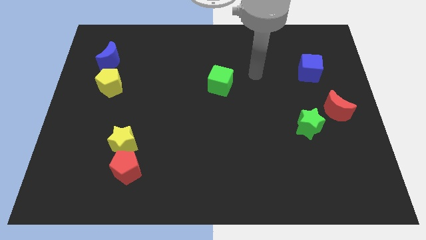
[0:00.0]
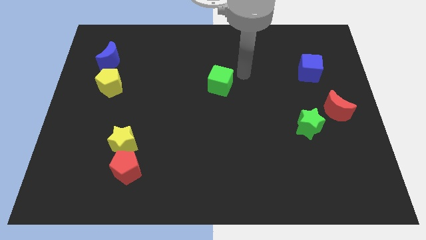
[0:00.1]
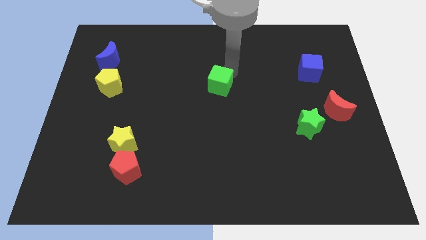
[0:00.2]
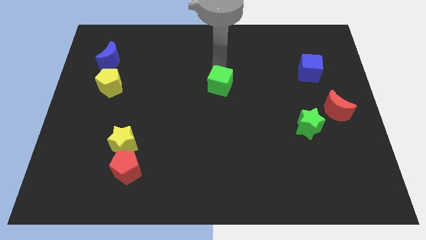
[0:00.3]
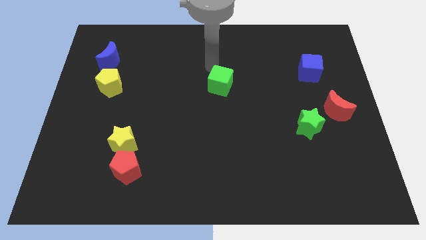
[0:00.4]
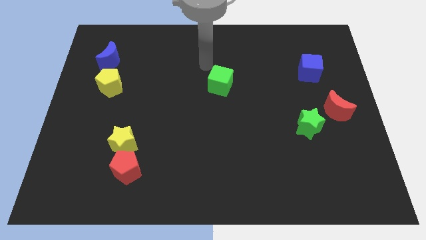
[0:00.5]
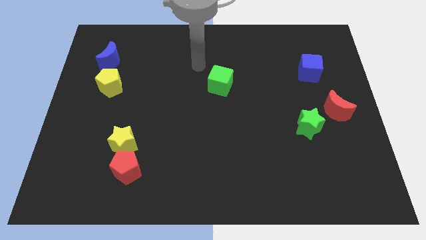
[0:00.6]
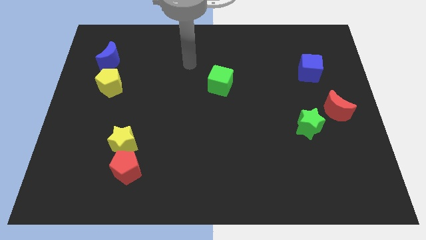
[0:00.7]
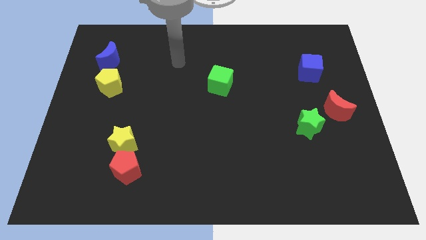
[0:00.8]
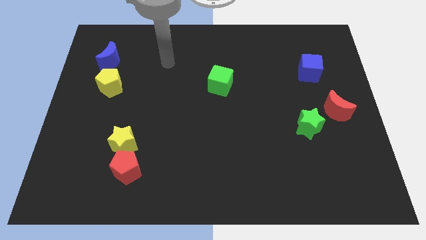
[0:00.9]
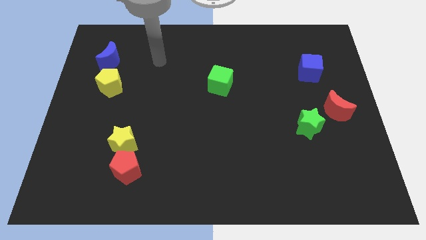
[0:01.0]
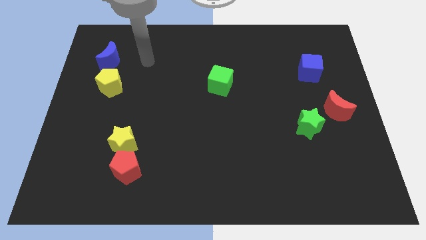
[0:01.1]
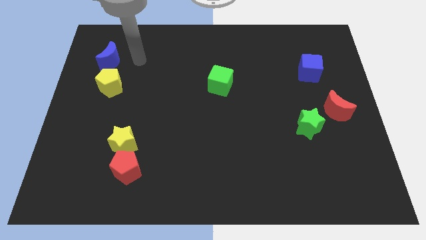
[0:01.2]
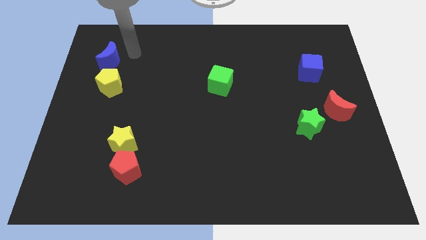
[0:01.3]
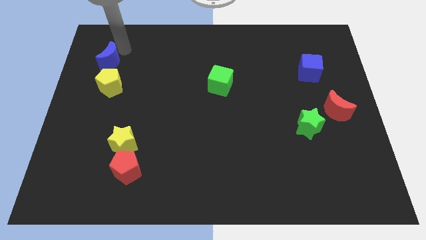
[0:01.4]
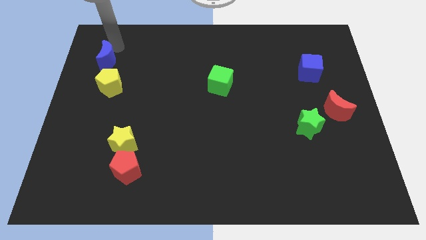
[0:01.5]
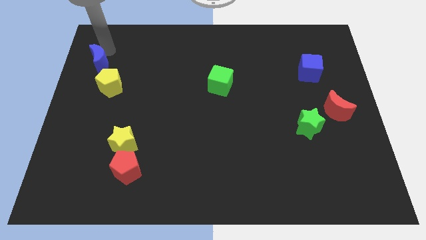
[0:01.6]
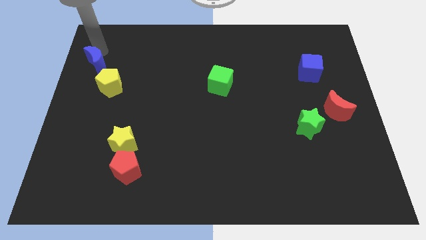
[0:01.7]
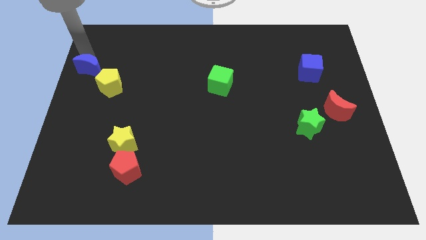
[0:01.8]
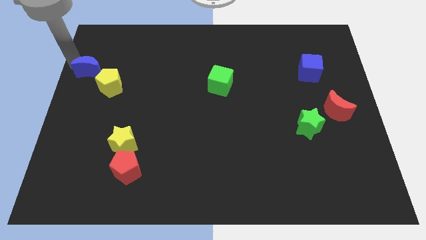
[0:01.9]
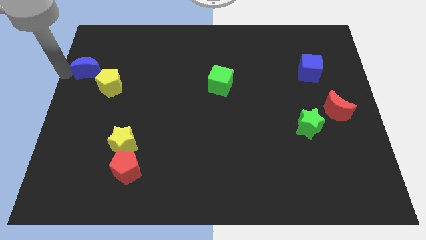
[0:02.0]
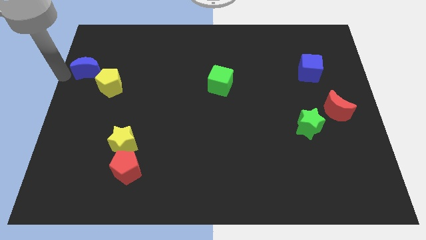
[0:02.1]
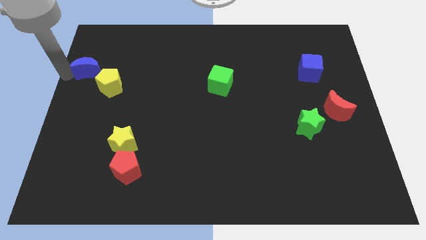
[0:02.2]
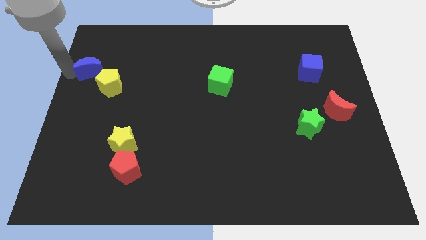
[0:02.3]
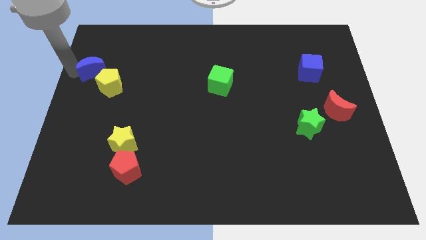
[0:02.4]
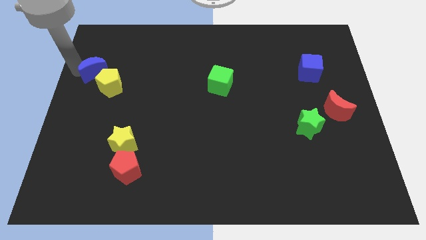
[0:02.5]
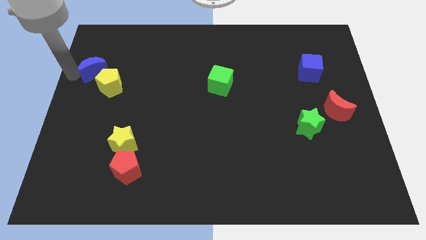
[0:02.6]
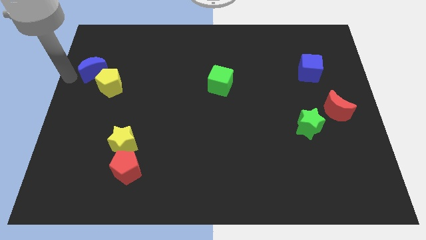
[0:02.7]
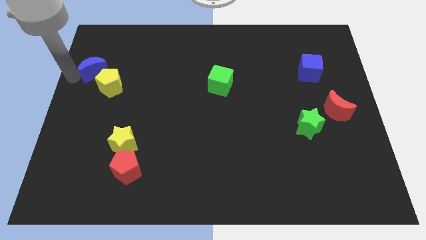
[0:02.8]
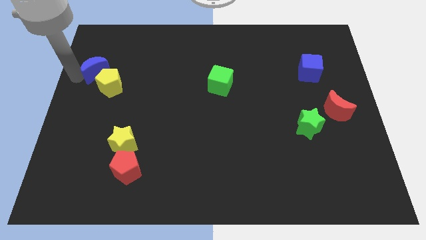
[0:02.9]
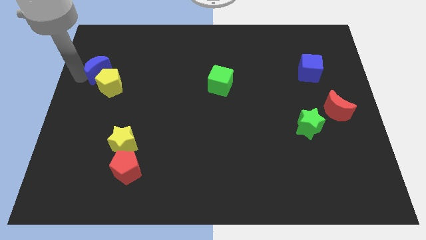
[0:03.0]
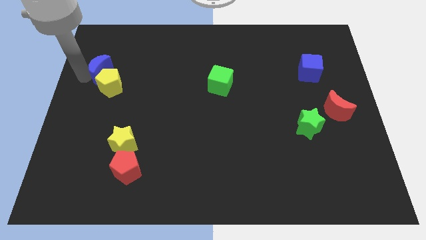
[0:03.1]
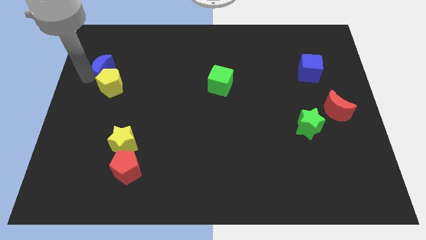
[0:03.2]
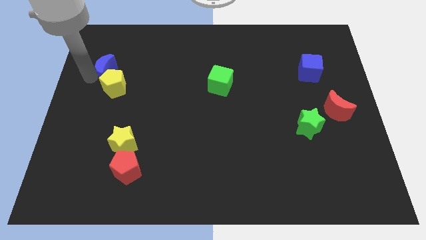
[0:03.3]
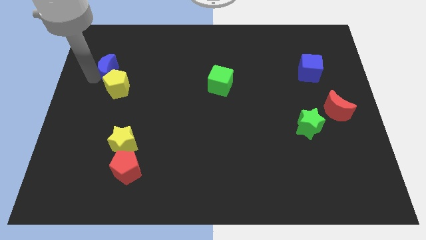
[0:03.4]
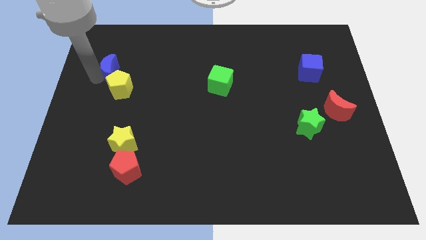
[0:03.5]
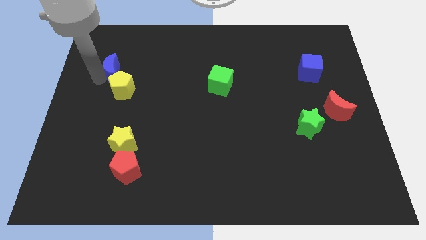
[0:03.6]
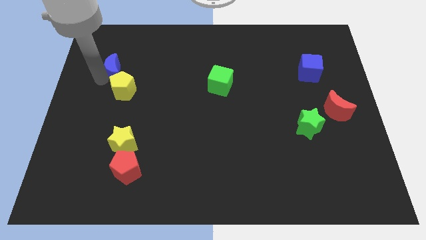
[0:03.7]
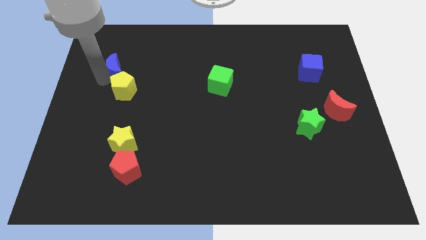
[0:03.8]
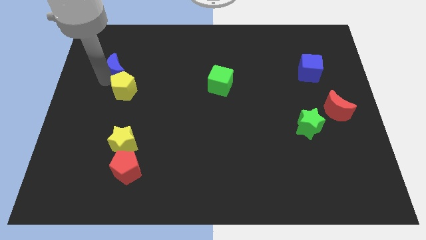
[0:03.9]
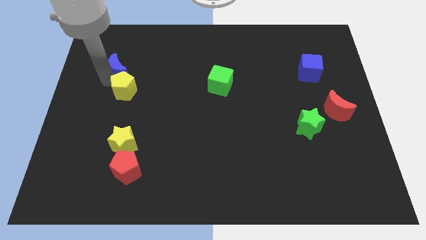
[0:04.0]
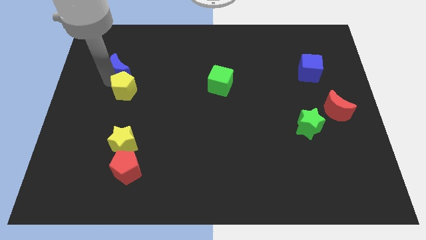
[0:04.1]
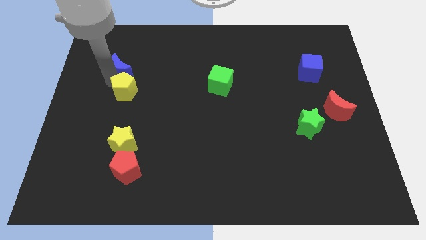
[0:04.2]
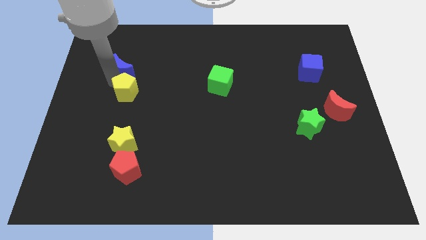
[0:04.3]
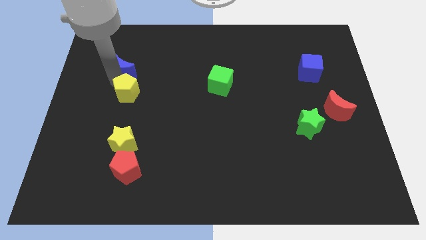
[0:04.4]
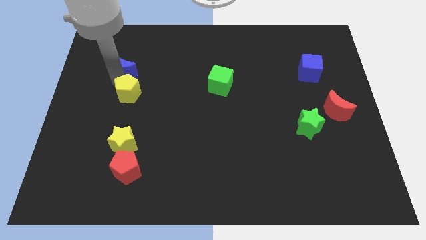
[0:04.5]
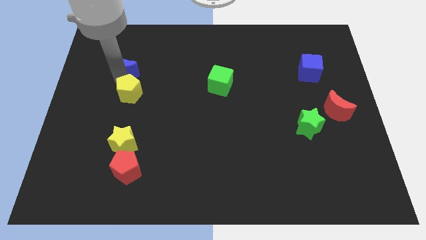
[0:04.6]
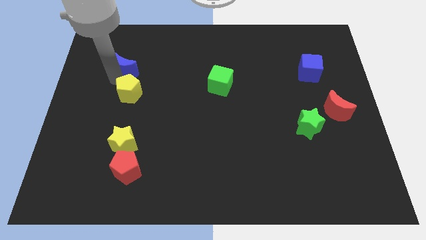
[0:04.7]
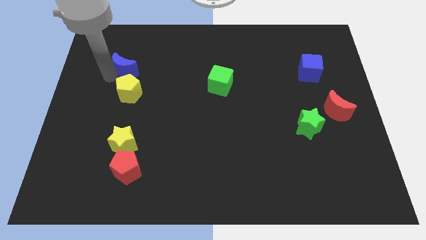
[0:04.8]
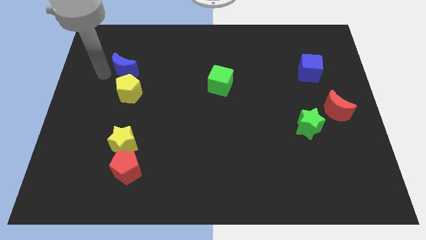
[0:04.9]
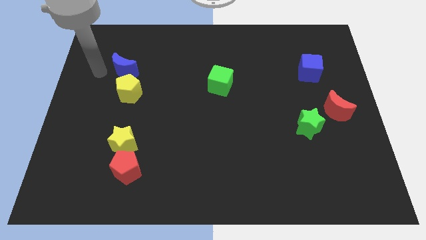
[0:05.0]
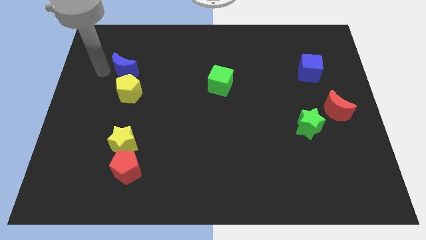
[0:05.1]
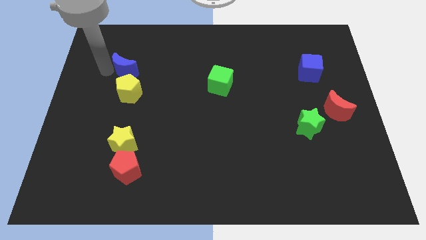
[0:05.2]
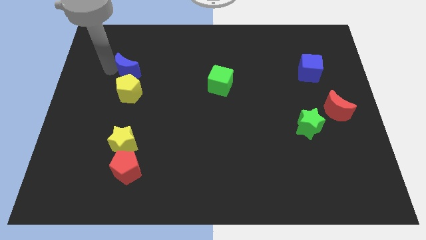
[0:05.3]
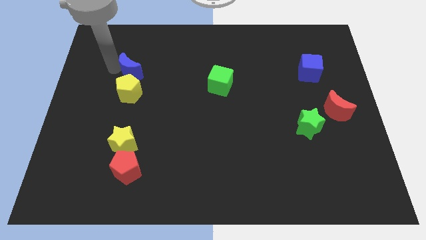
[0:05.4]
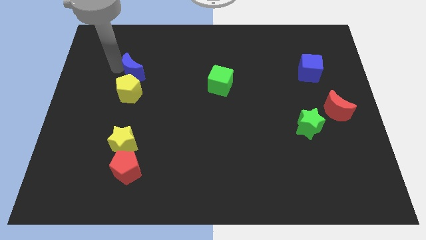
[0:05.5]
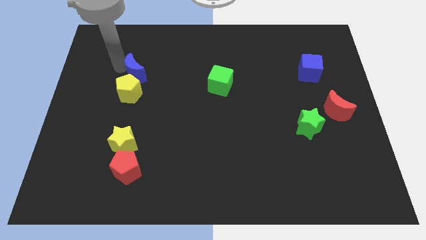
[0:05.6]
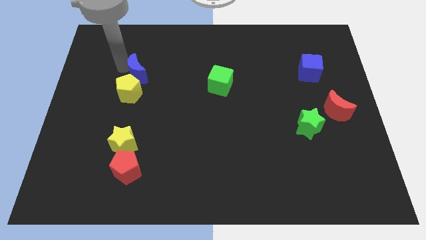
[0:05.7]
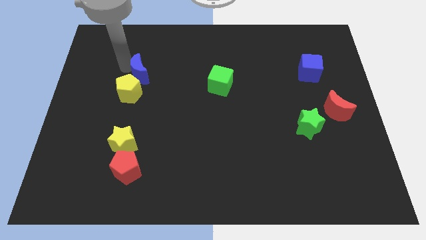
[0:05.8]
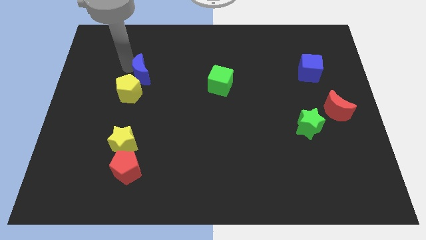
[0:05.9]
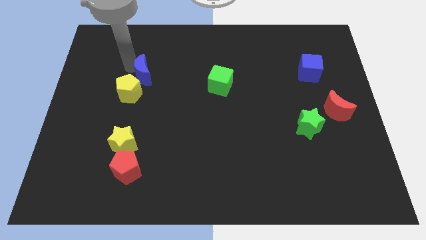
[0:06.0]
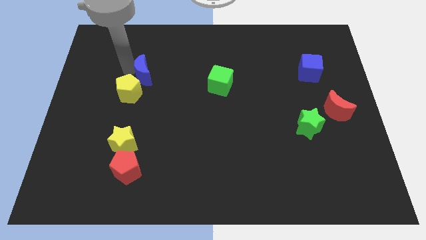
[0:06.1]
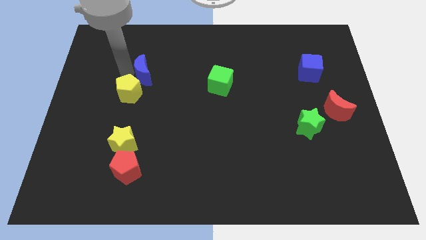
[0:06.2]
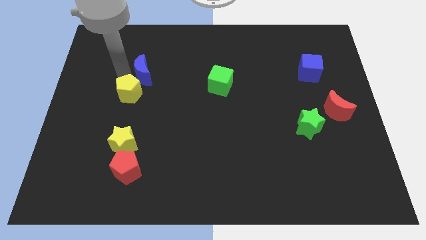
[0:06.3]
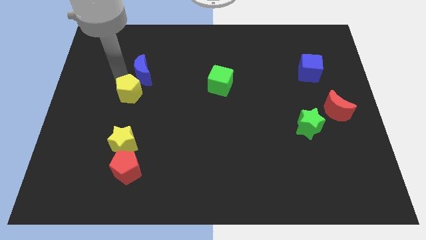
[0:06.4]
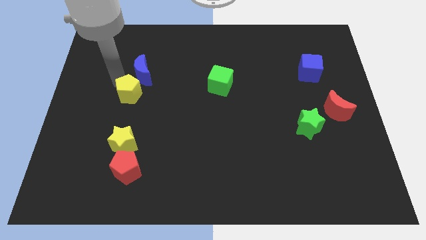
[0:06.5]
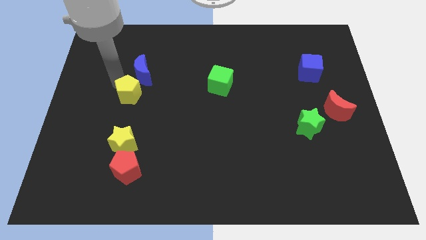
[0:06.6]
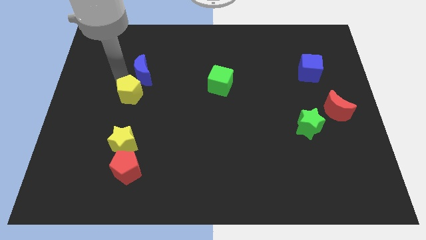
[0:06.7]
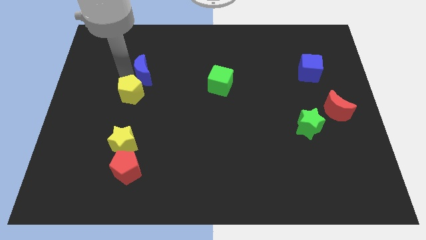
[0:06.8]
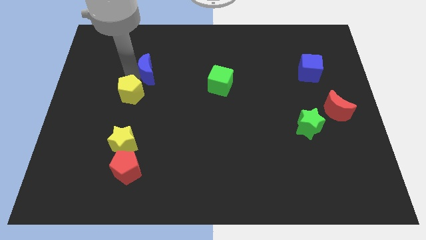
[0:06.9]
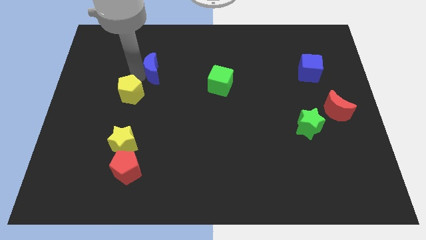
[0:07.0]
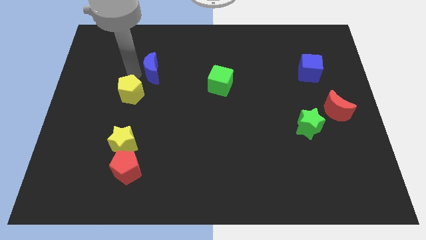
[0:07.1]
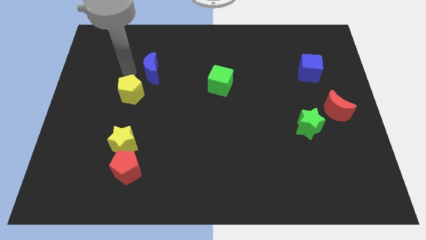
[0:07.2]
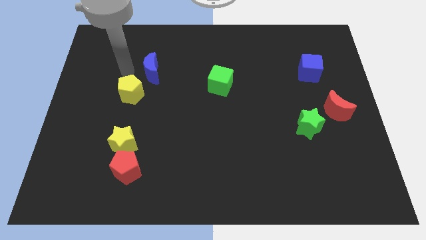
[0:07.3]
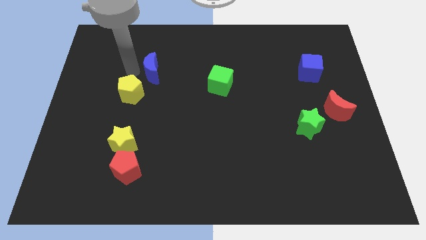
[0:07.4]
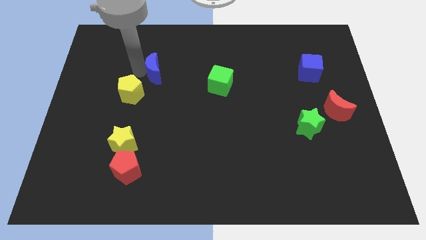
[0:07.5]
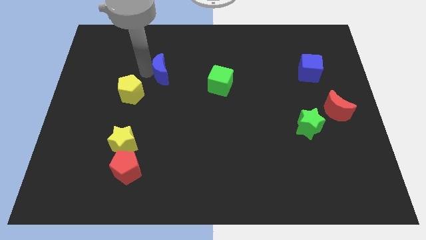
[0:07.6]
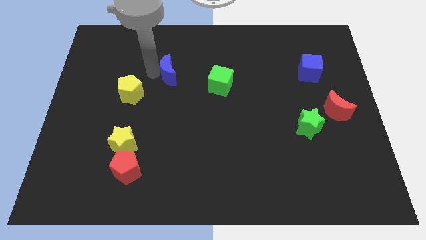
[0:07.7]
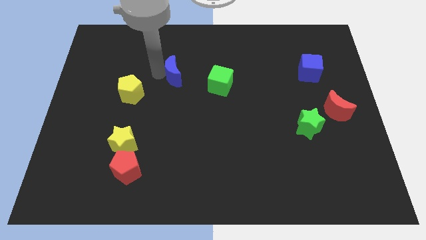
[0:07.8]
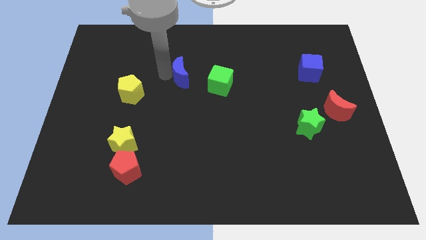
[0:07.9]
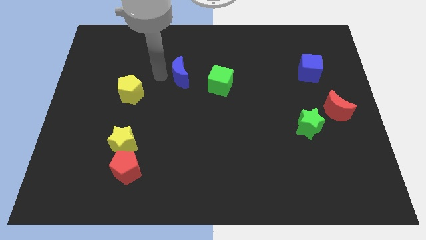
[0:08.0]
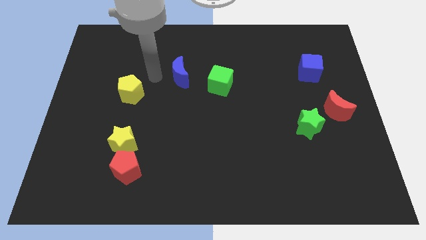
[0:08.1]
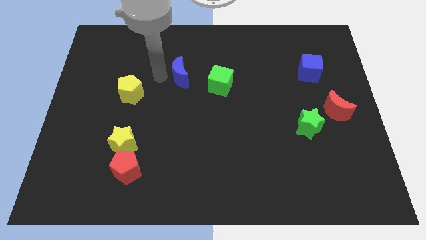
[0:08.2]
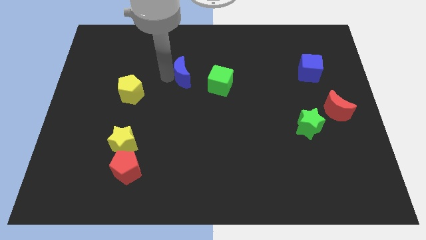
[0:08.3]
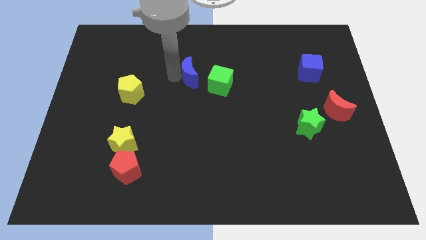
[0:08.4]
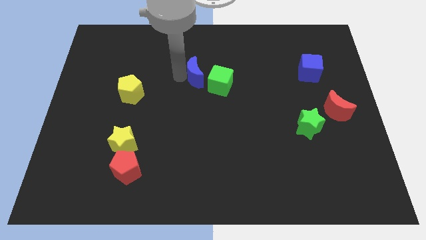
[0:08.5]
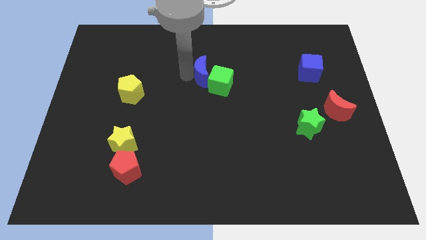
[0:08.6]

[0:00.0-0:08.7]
slide the blue moon towards the green cube
